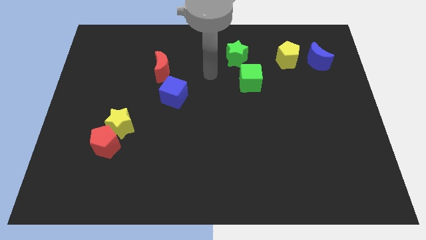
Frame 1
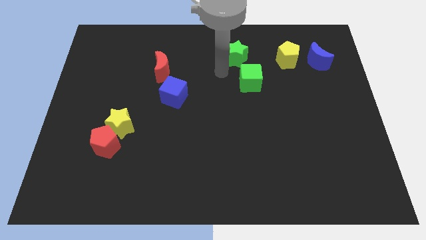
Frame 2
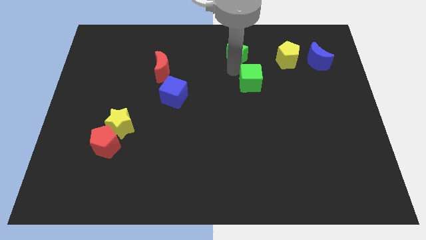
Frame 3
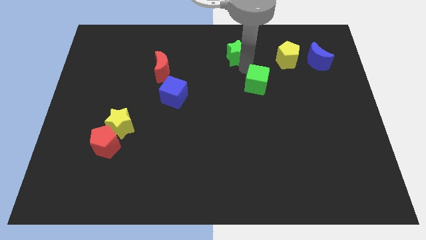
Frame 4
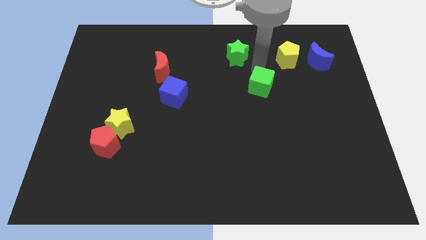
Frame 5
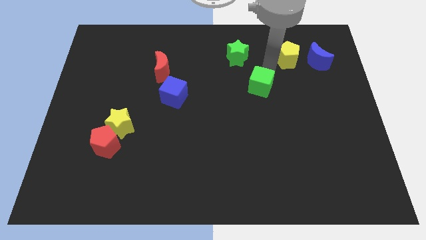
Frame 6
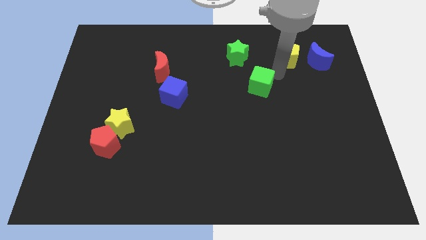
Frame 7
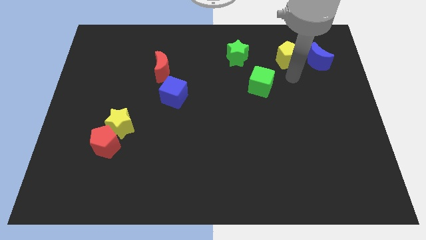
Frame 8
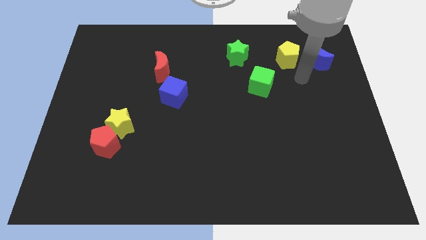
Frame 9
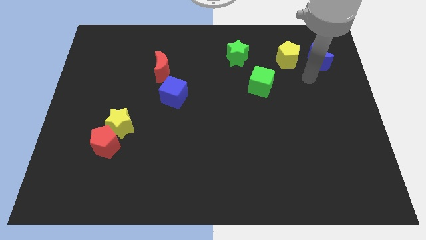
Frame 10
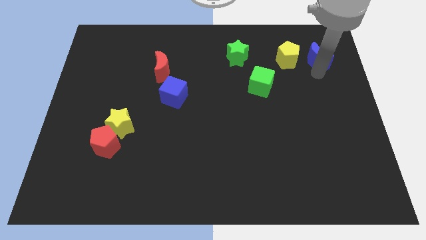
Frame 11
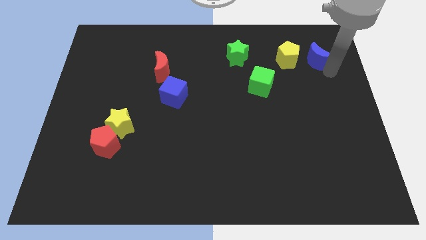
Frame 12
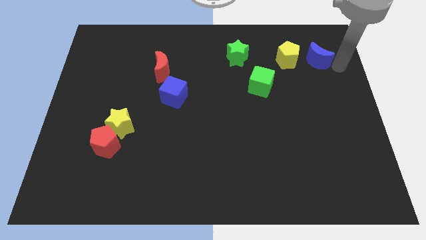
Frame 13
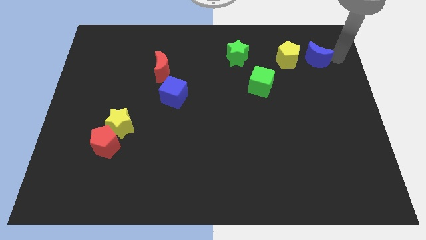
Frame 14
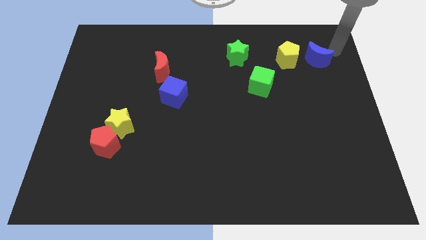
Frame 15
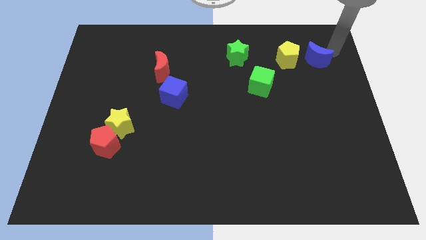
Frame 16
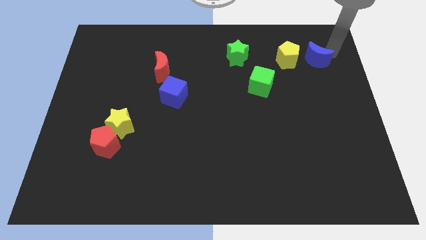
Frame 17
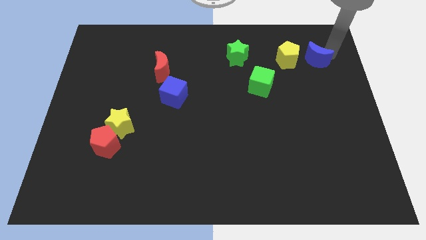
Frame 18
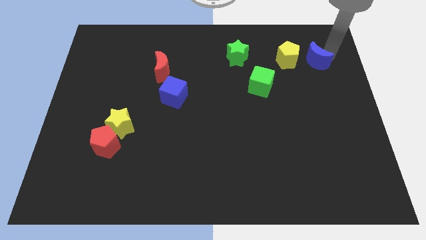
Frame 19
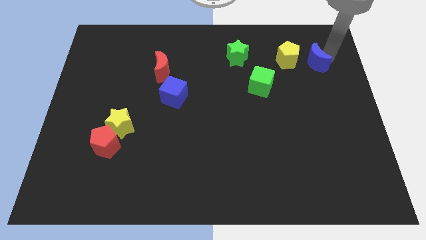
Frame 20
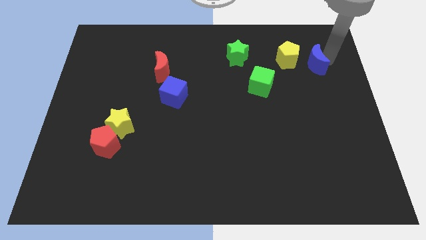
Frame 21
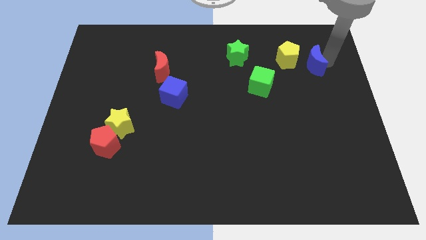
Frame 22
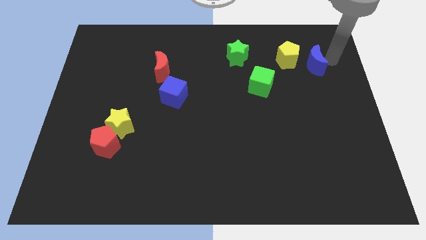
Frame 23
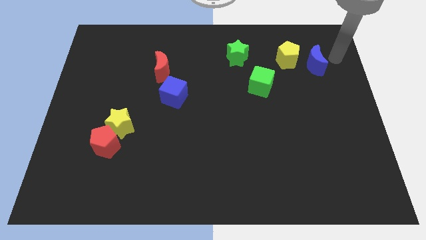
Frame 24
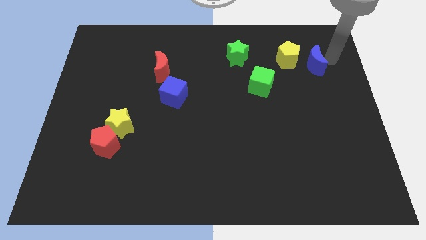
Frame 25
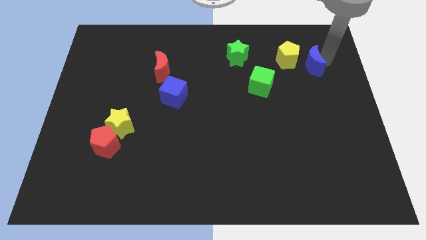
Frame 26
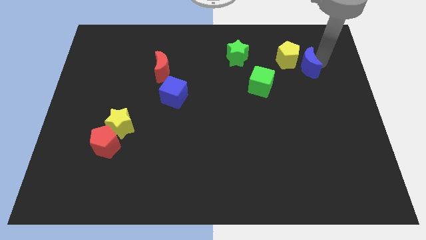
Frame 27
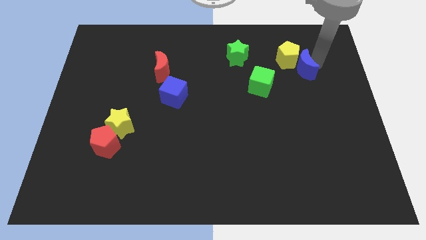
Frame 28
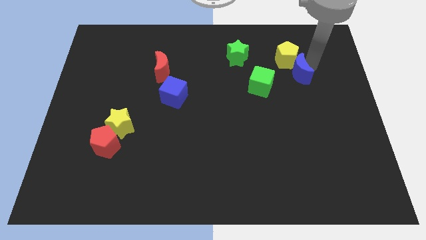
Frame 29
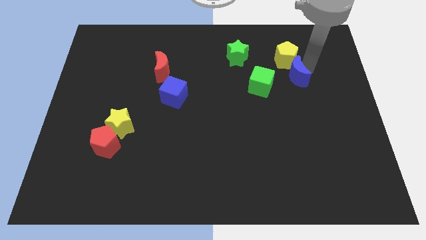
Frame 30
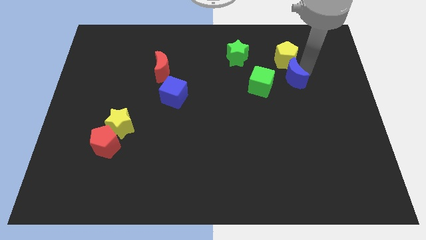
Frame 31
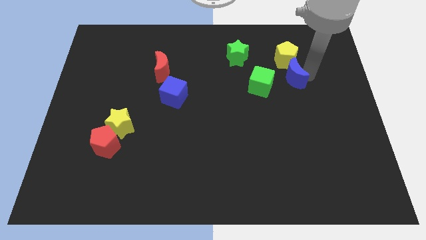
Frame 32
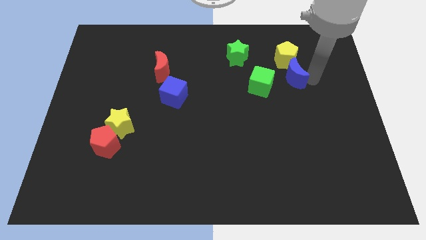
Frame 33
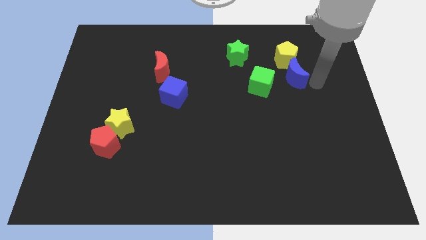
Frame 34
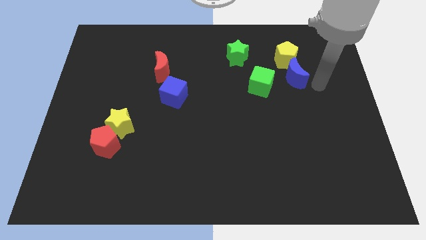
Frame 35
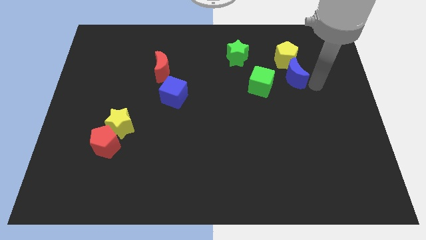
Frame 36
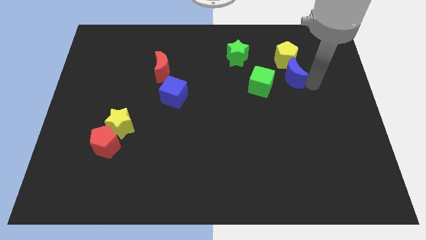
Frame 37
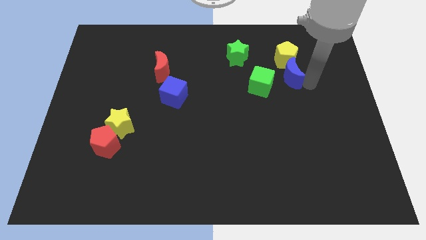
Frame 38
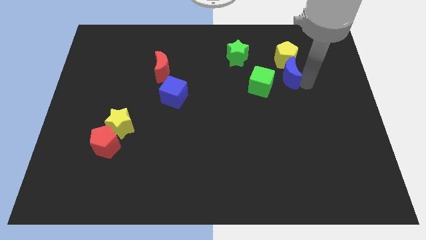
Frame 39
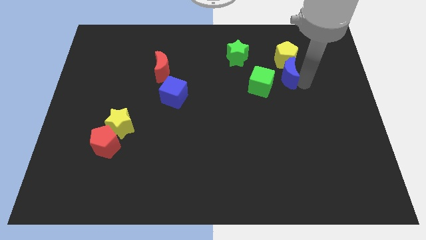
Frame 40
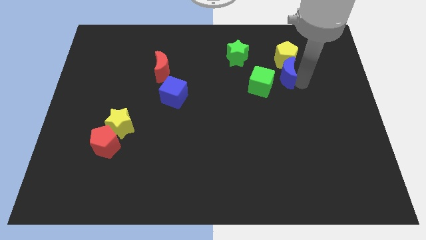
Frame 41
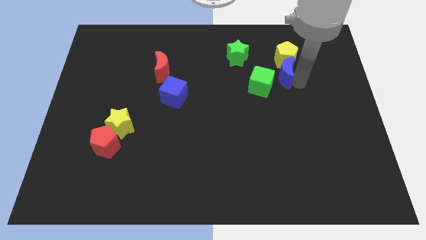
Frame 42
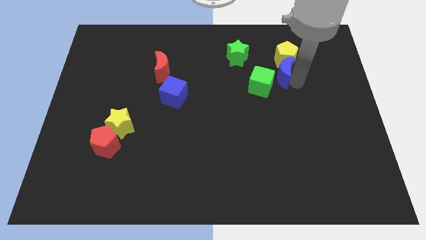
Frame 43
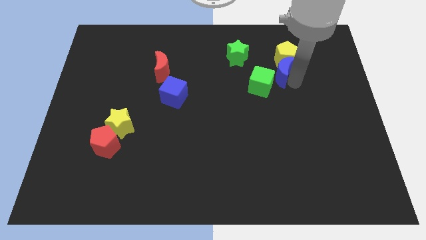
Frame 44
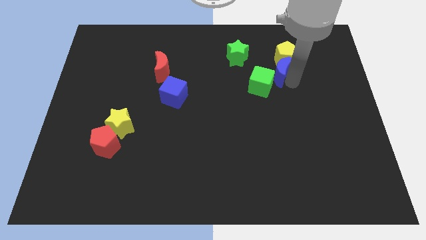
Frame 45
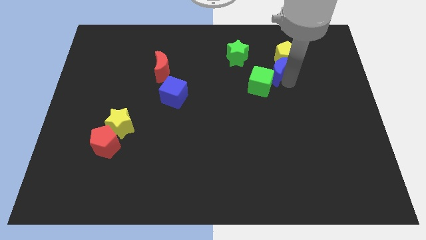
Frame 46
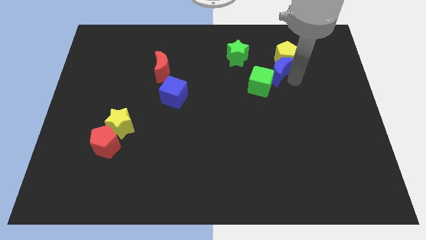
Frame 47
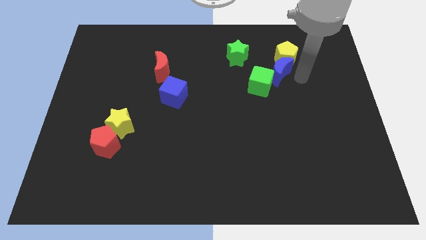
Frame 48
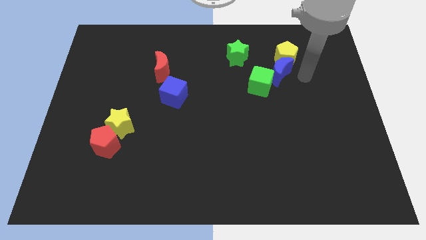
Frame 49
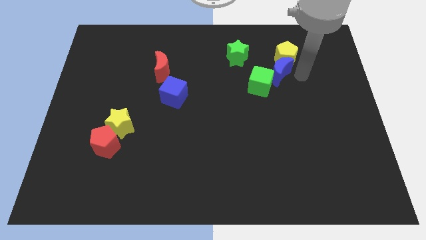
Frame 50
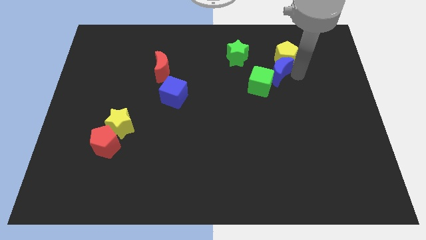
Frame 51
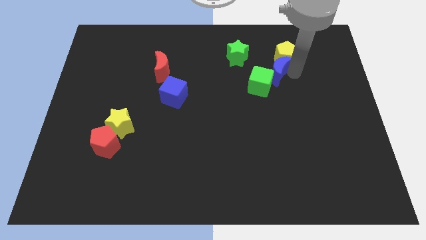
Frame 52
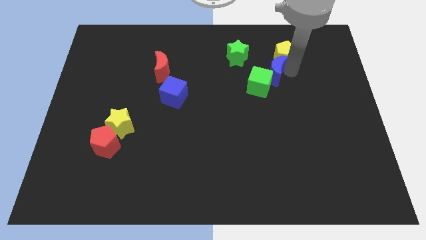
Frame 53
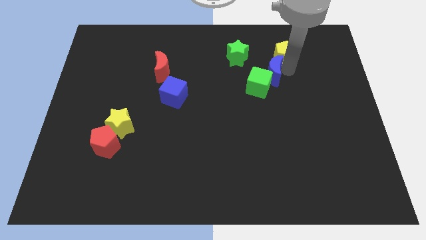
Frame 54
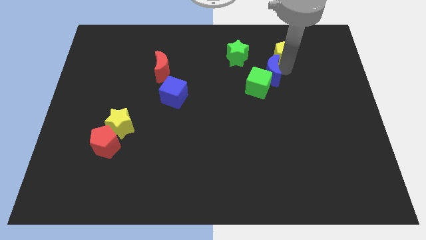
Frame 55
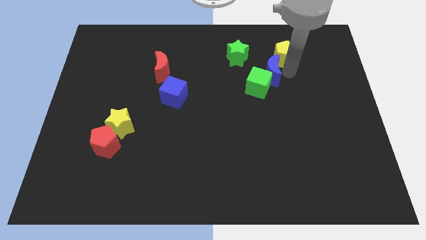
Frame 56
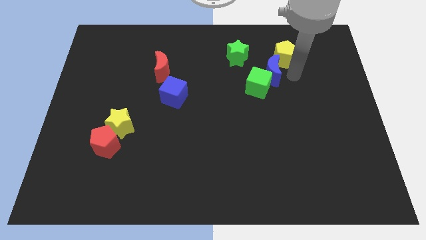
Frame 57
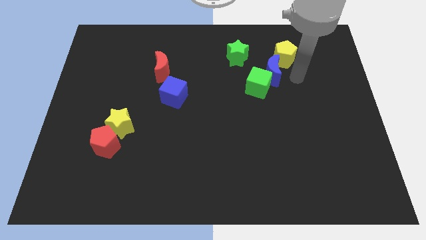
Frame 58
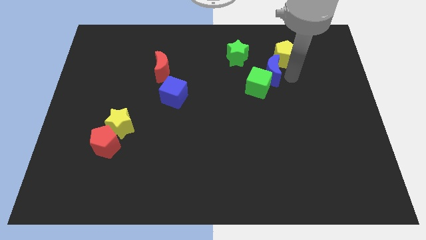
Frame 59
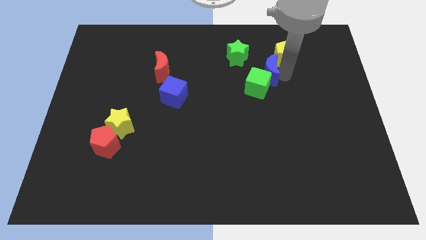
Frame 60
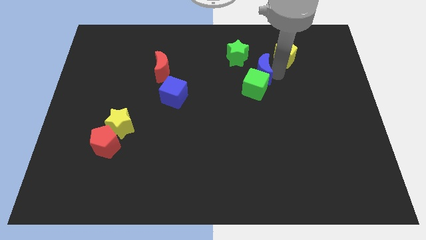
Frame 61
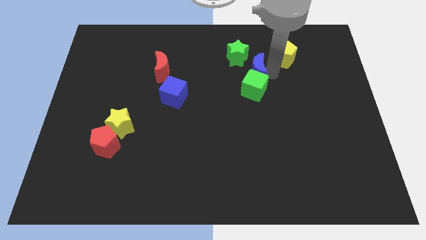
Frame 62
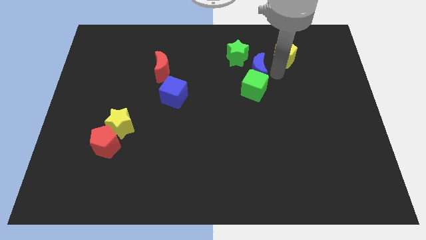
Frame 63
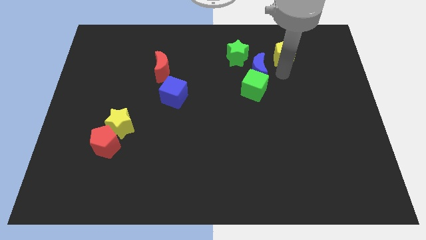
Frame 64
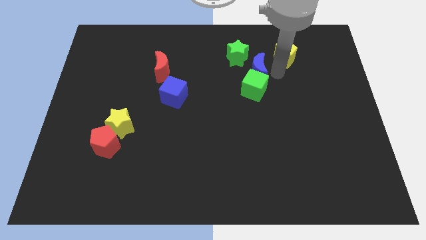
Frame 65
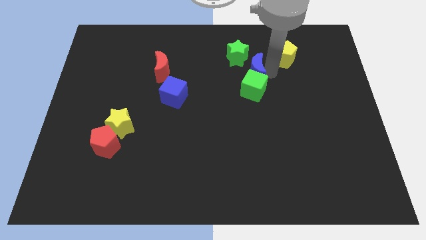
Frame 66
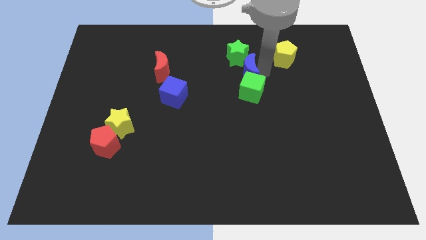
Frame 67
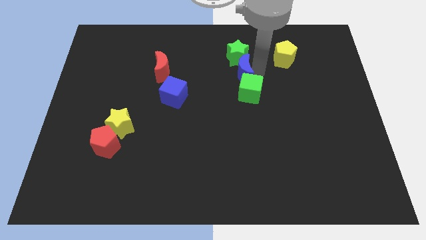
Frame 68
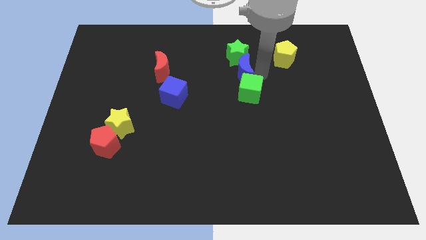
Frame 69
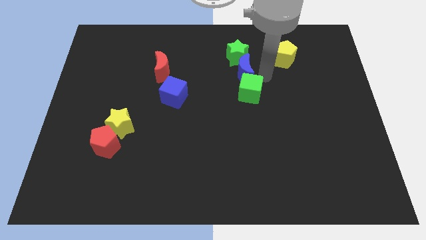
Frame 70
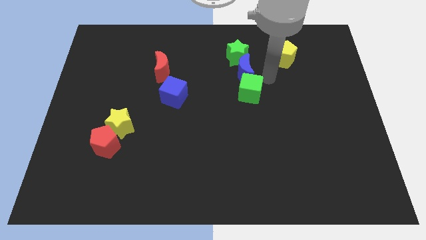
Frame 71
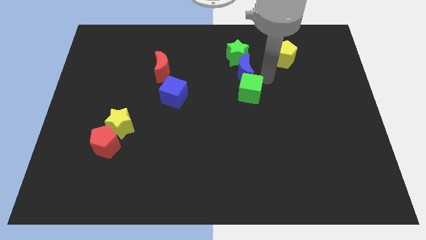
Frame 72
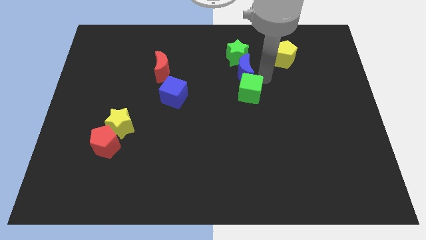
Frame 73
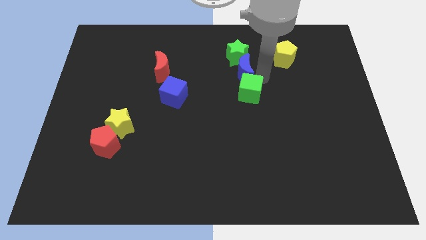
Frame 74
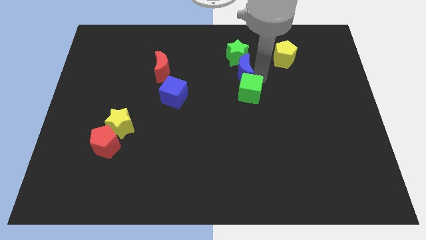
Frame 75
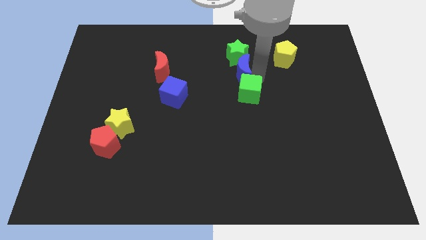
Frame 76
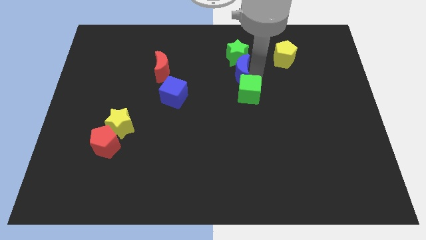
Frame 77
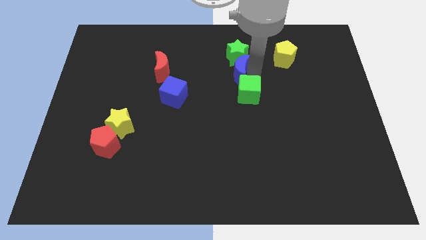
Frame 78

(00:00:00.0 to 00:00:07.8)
push the blue moon to the left
